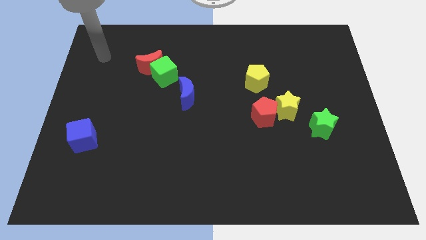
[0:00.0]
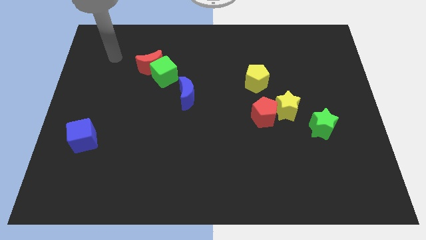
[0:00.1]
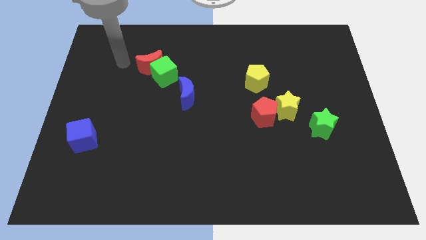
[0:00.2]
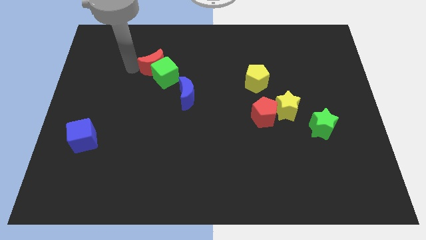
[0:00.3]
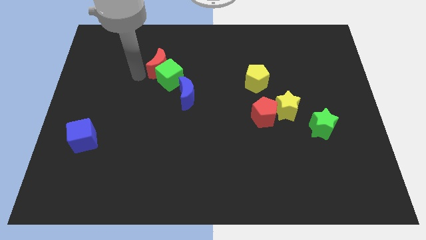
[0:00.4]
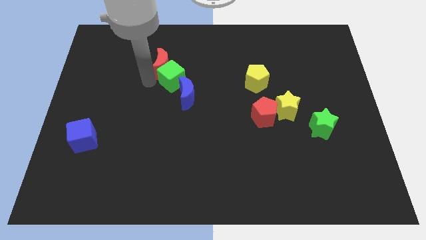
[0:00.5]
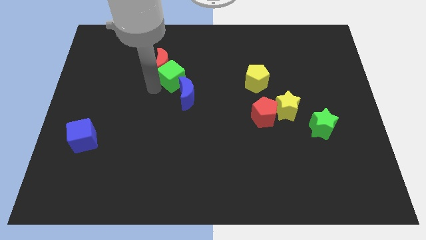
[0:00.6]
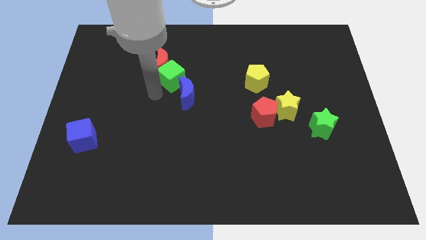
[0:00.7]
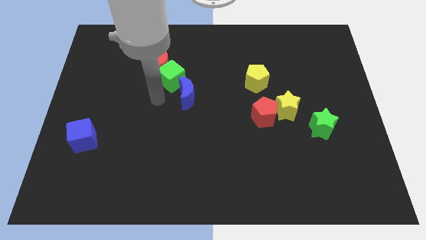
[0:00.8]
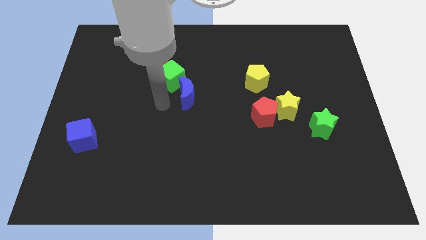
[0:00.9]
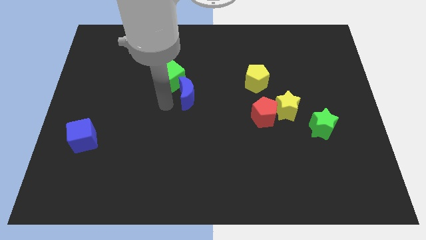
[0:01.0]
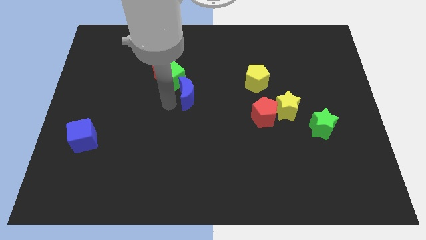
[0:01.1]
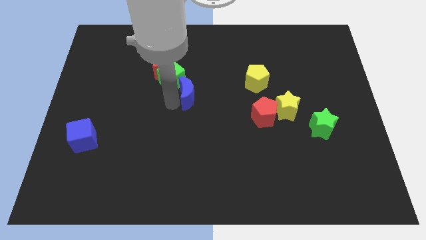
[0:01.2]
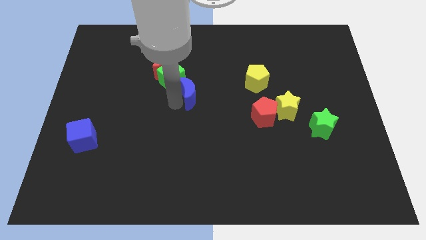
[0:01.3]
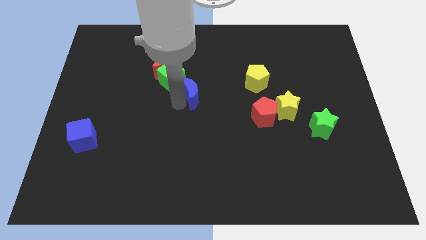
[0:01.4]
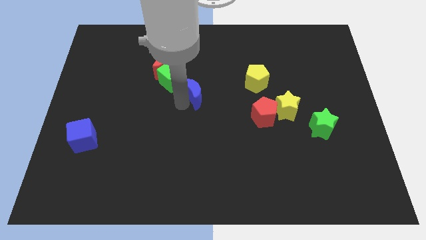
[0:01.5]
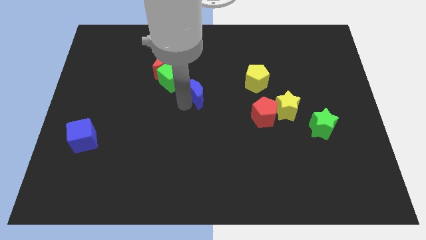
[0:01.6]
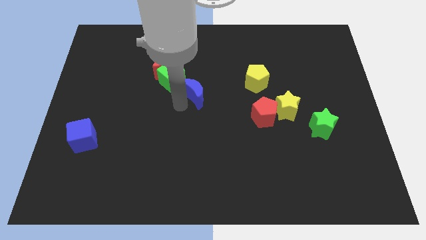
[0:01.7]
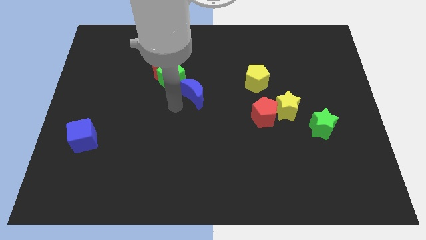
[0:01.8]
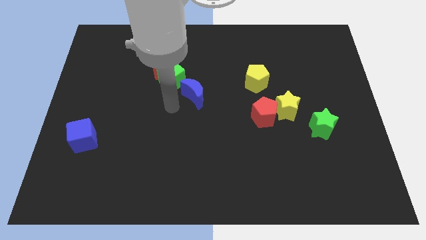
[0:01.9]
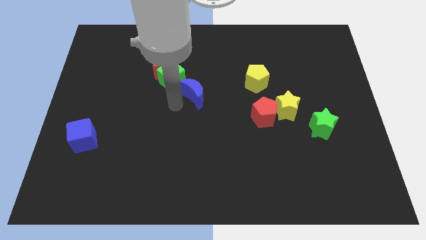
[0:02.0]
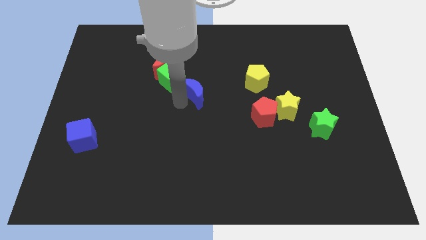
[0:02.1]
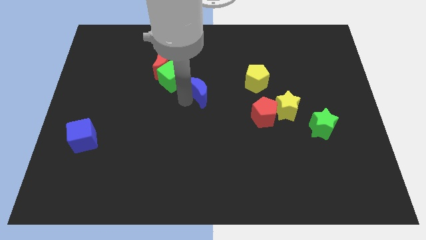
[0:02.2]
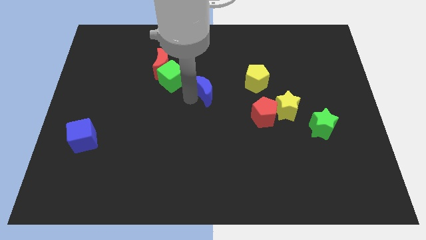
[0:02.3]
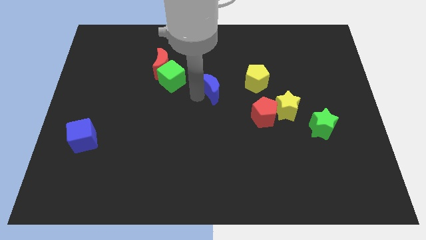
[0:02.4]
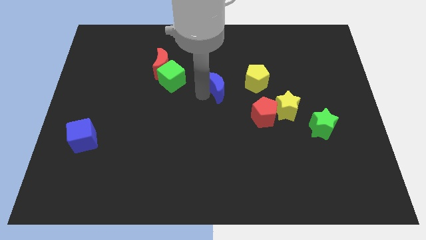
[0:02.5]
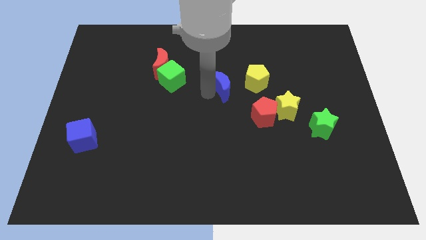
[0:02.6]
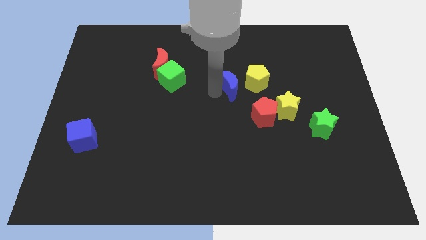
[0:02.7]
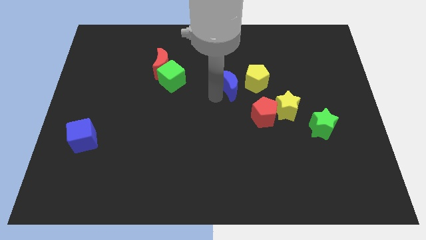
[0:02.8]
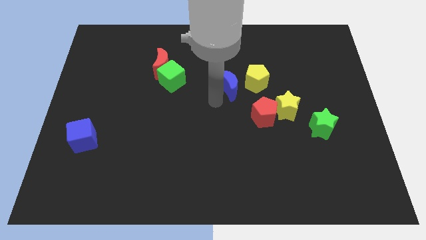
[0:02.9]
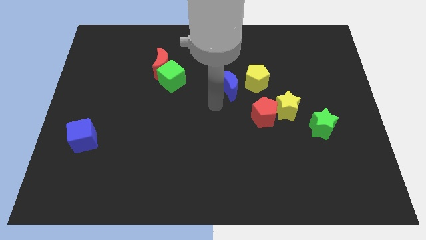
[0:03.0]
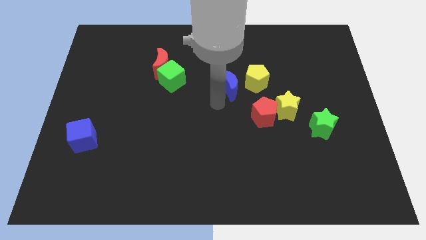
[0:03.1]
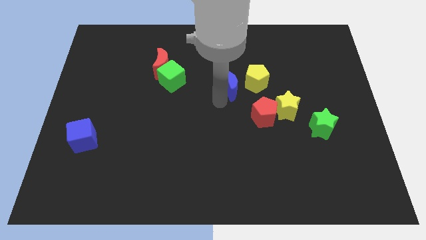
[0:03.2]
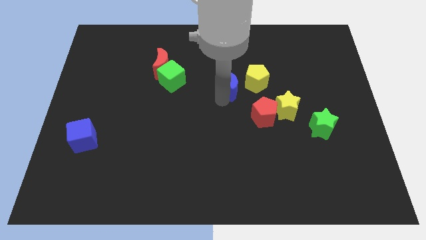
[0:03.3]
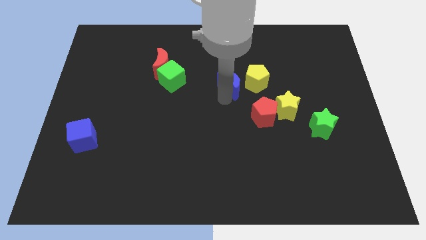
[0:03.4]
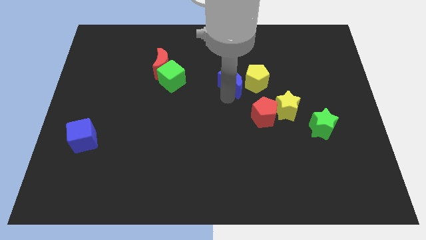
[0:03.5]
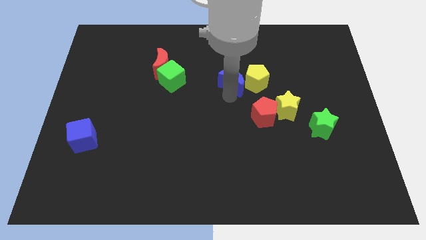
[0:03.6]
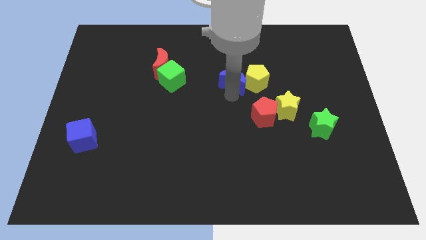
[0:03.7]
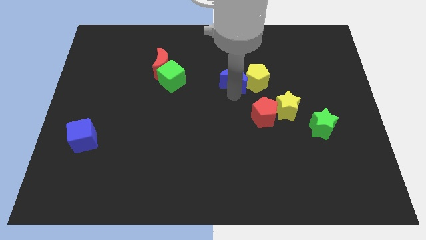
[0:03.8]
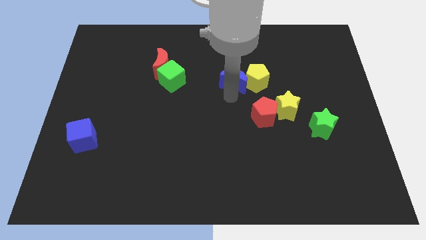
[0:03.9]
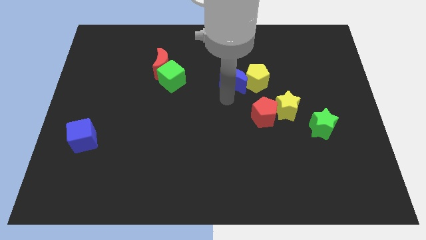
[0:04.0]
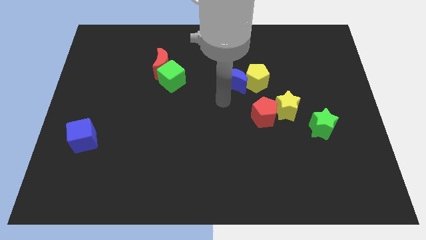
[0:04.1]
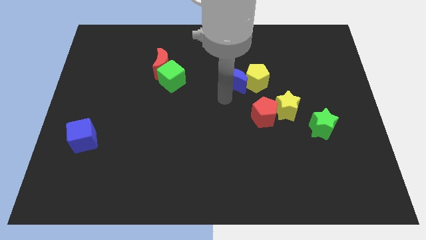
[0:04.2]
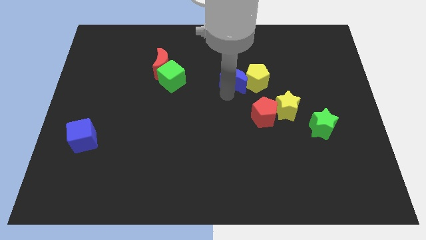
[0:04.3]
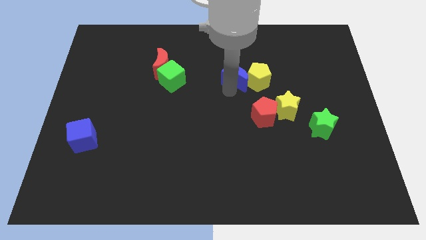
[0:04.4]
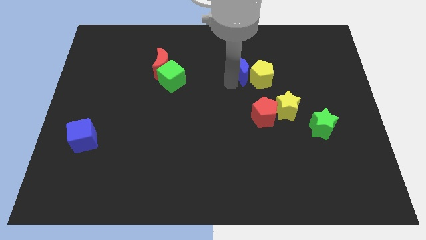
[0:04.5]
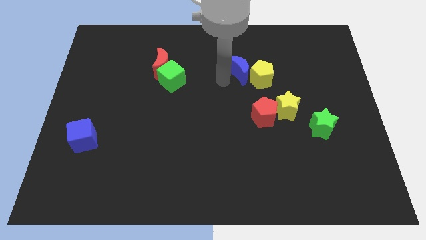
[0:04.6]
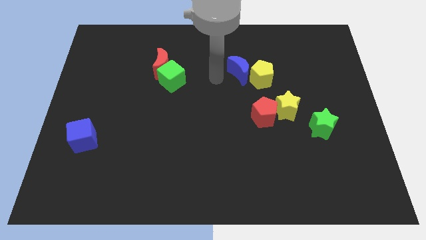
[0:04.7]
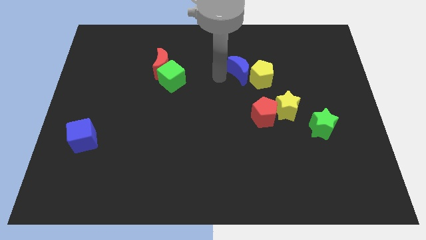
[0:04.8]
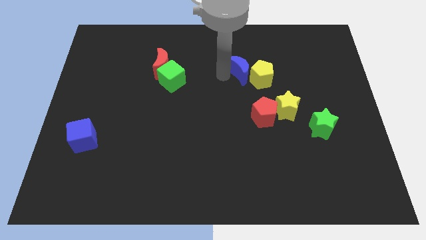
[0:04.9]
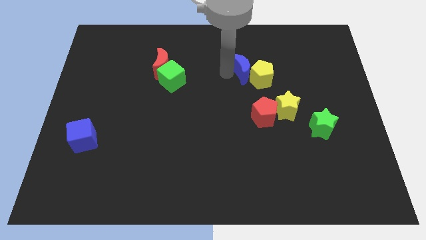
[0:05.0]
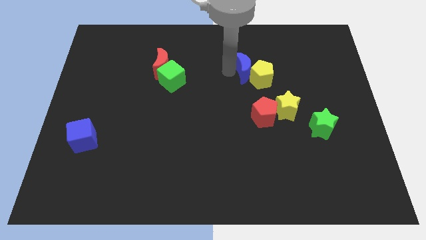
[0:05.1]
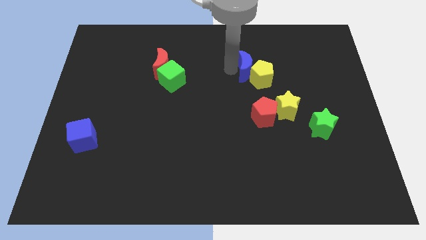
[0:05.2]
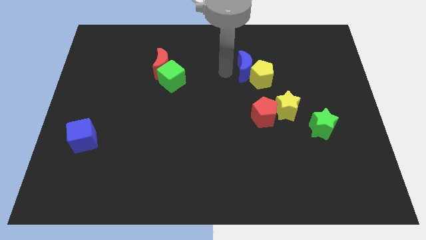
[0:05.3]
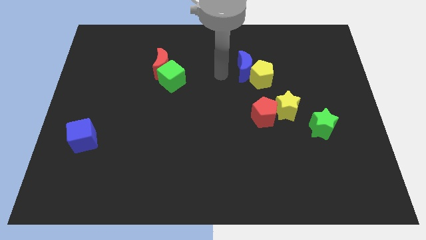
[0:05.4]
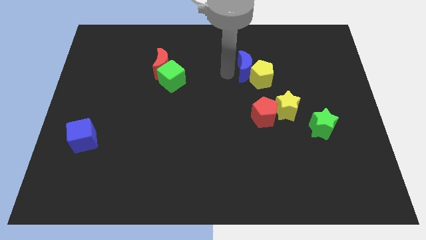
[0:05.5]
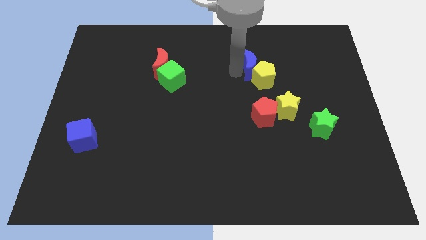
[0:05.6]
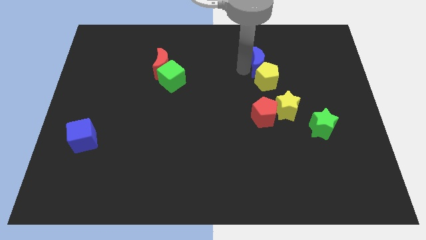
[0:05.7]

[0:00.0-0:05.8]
move the blue moon diagonally up and to the right of the yellow pentagon

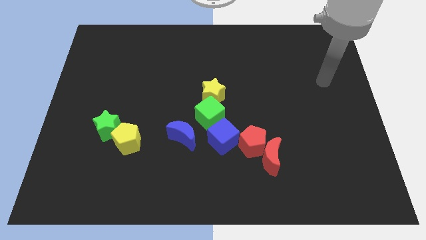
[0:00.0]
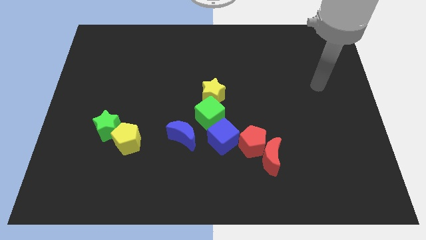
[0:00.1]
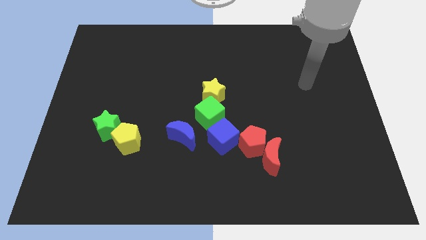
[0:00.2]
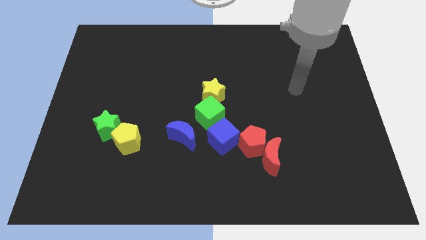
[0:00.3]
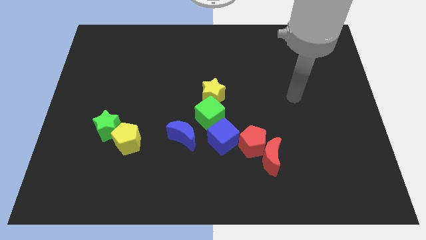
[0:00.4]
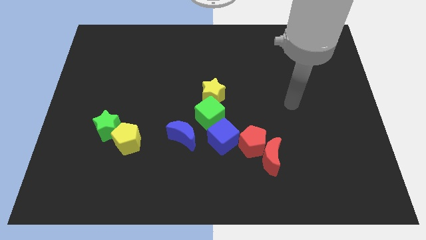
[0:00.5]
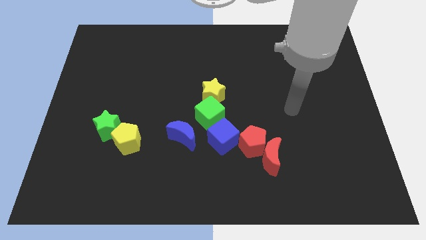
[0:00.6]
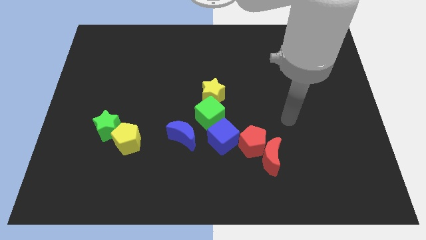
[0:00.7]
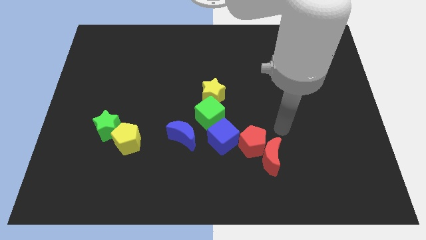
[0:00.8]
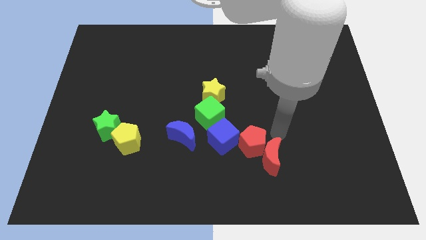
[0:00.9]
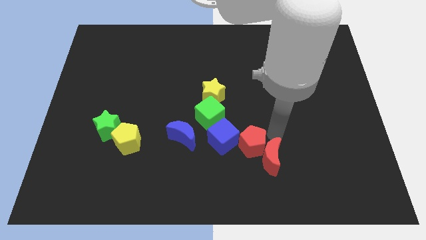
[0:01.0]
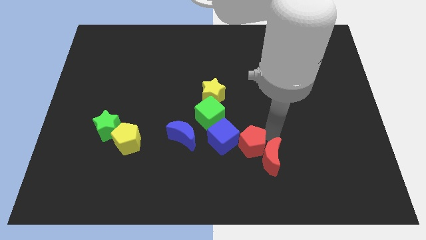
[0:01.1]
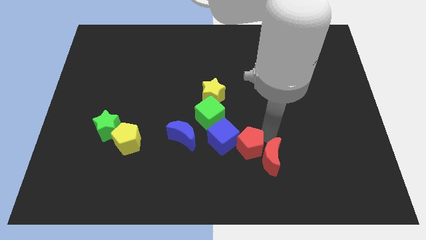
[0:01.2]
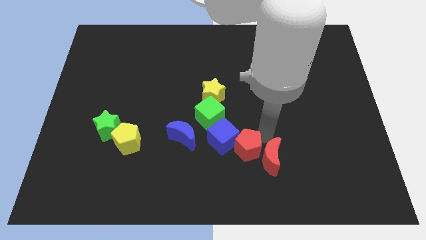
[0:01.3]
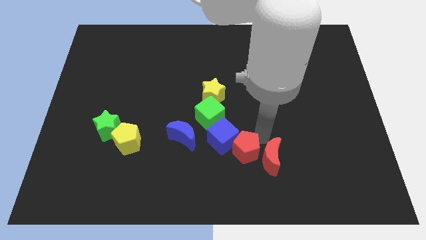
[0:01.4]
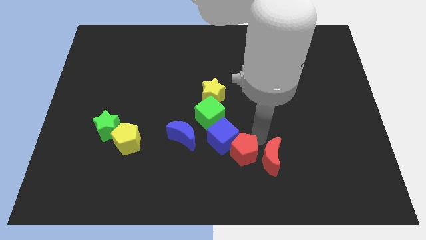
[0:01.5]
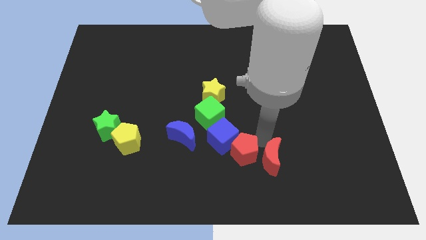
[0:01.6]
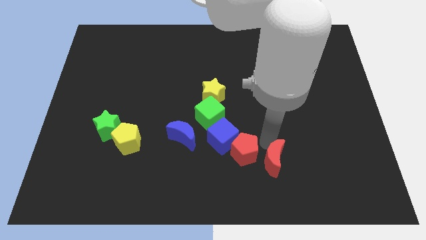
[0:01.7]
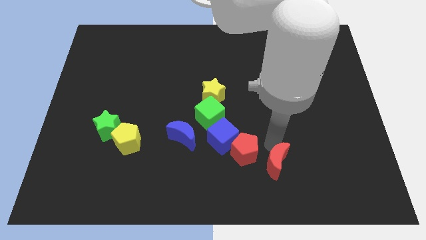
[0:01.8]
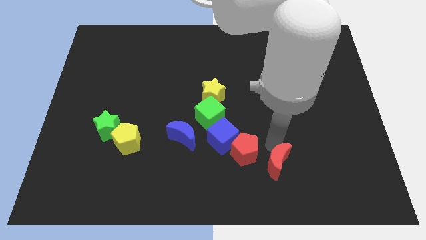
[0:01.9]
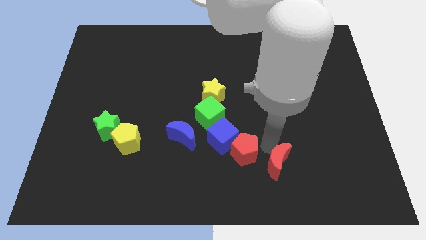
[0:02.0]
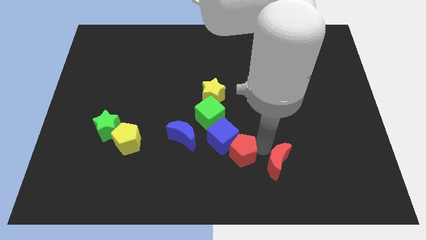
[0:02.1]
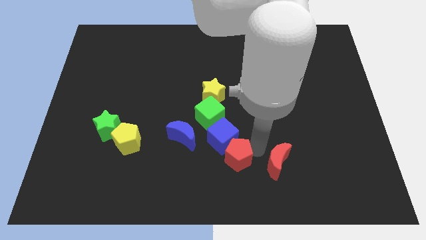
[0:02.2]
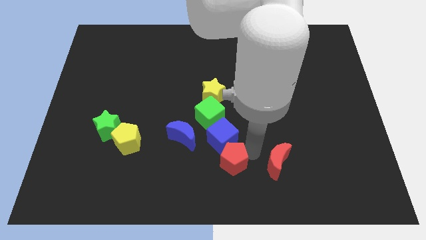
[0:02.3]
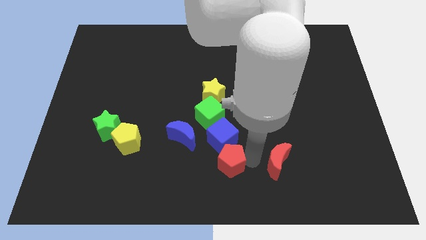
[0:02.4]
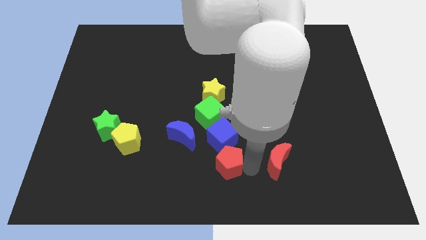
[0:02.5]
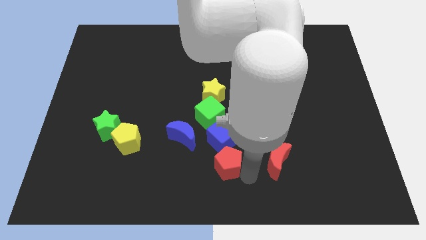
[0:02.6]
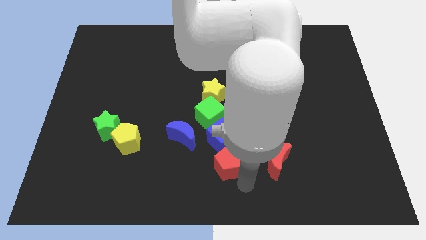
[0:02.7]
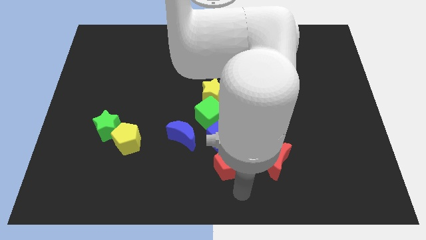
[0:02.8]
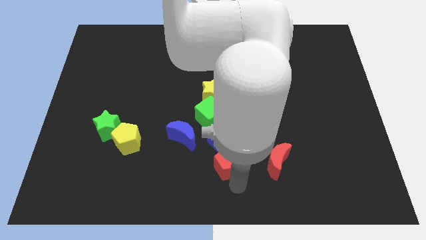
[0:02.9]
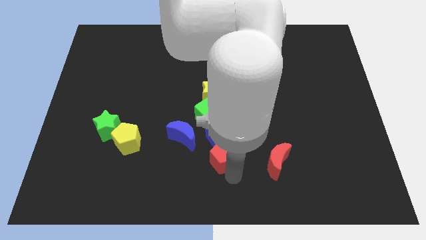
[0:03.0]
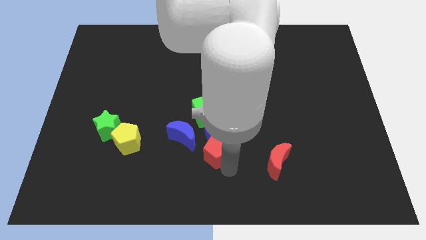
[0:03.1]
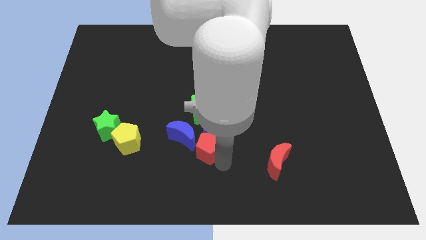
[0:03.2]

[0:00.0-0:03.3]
push the red pentagon to the bottom side of the yellow star
